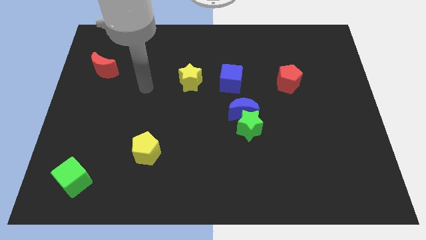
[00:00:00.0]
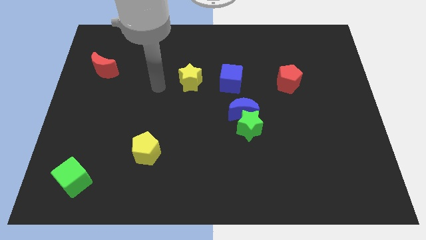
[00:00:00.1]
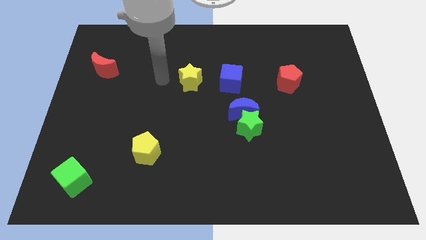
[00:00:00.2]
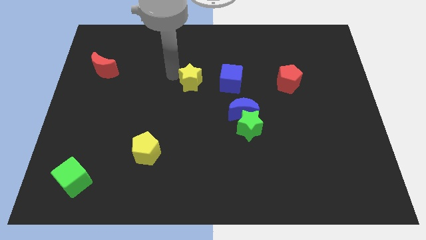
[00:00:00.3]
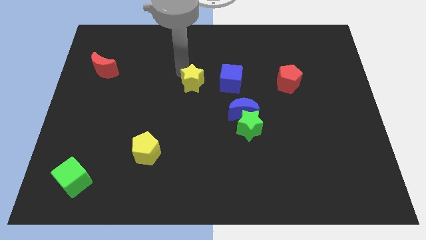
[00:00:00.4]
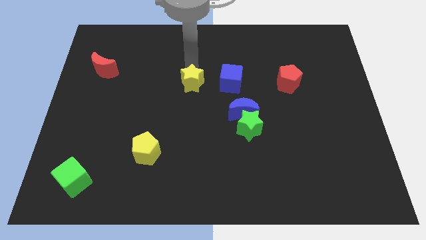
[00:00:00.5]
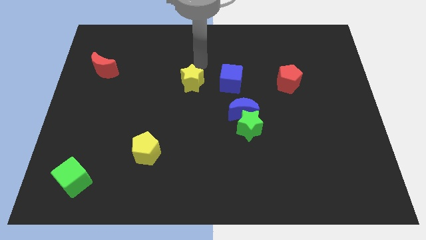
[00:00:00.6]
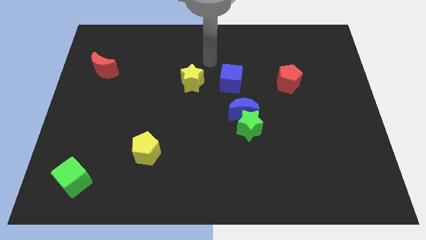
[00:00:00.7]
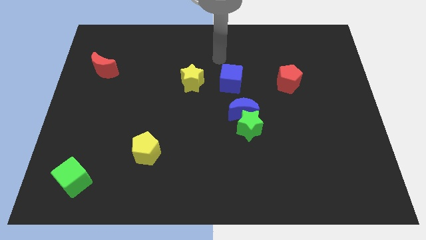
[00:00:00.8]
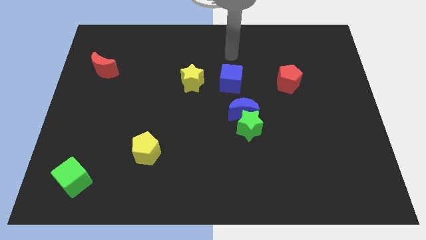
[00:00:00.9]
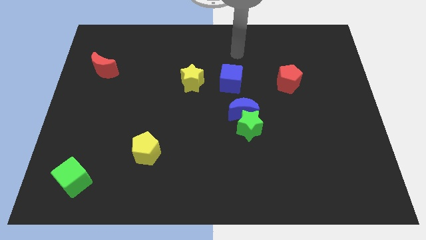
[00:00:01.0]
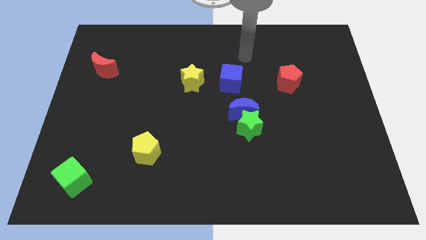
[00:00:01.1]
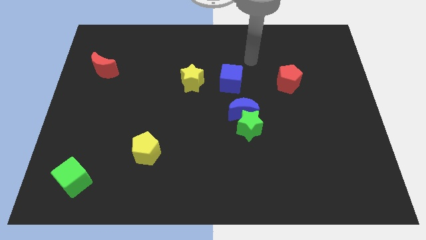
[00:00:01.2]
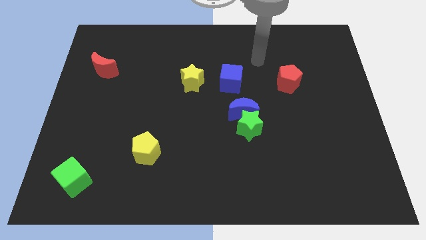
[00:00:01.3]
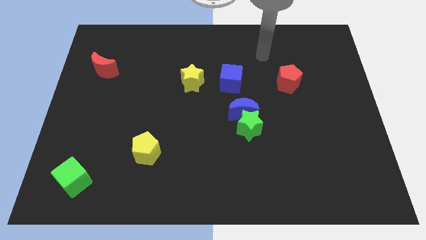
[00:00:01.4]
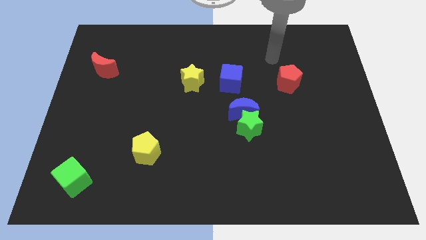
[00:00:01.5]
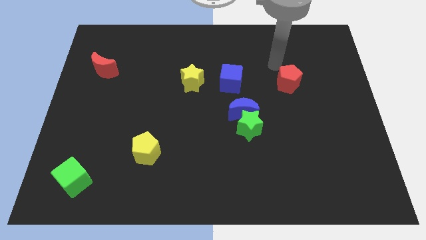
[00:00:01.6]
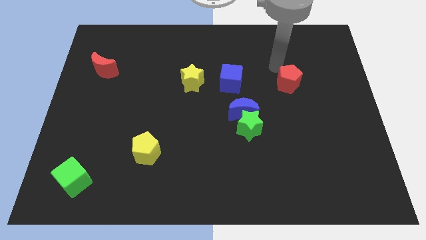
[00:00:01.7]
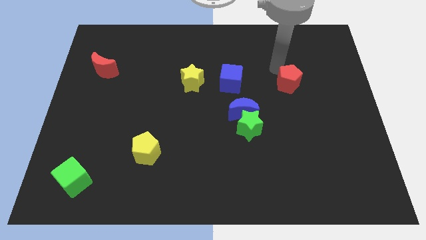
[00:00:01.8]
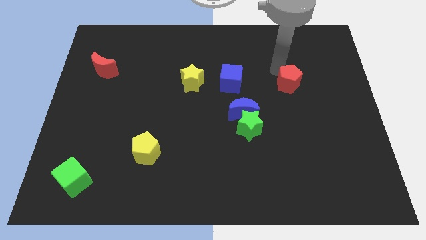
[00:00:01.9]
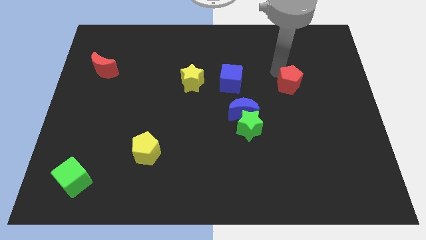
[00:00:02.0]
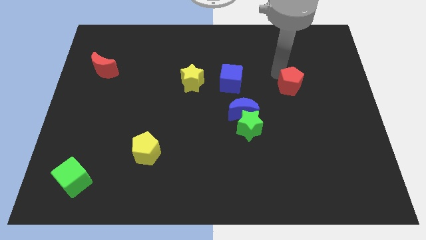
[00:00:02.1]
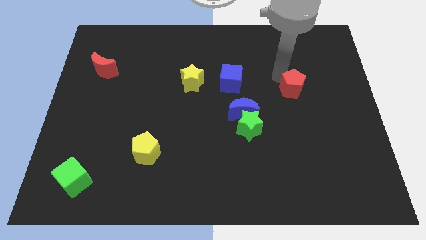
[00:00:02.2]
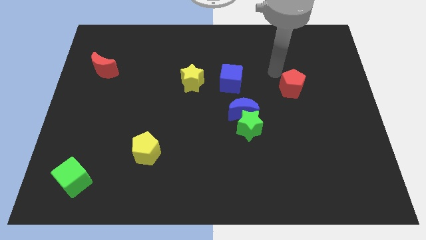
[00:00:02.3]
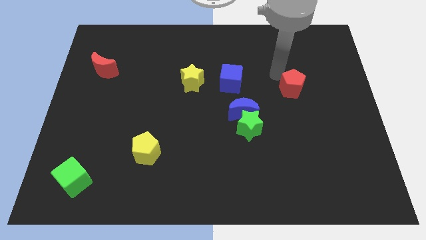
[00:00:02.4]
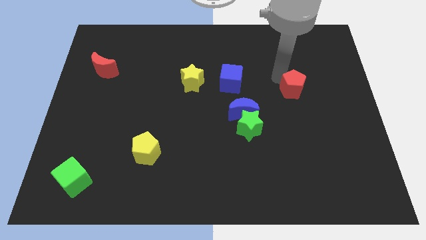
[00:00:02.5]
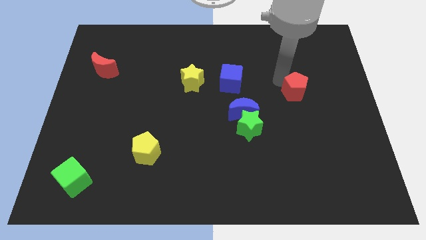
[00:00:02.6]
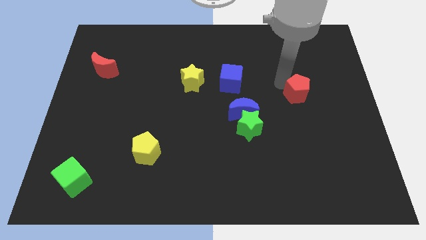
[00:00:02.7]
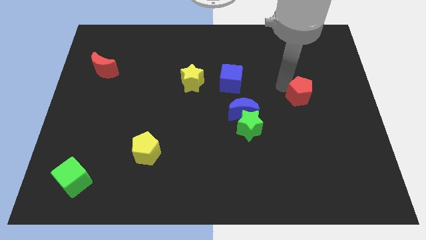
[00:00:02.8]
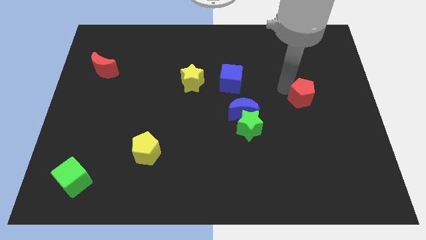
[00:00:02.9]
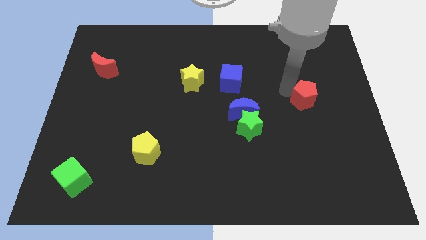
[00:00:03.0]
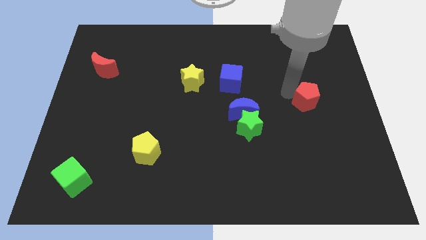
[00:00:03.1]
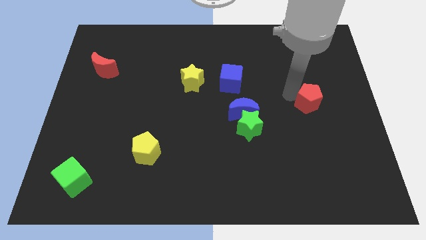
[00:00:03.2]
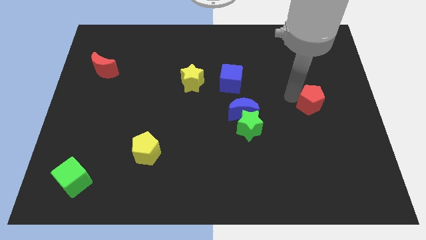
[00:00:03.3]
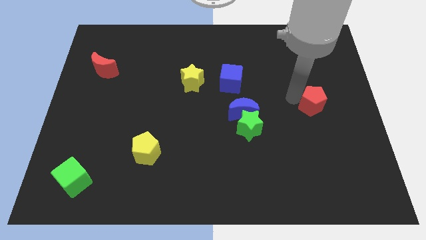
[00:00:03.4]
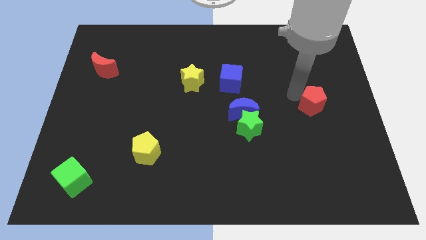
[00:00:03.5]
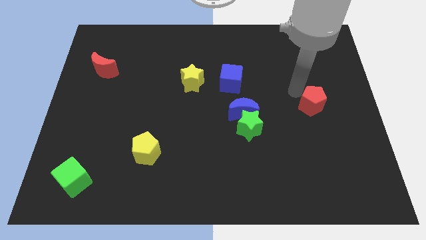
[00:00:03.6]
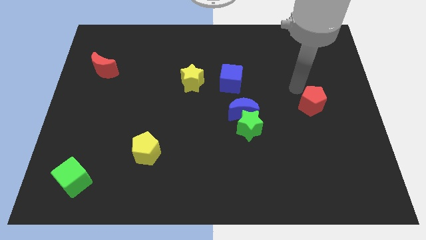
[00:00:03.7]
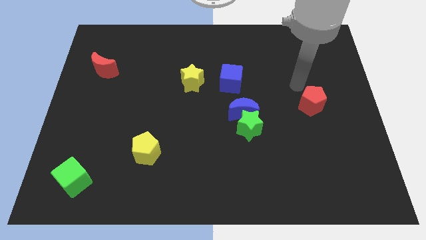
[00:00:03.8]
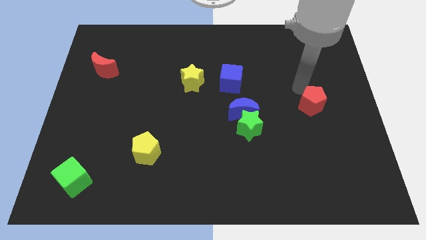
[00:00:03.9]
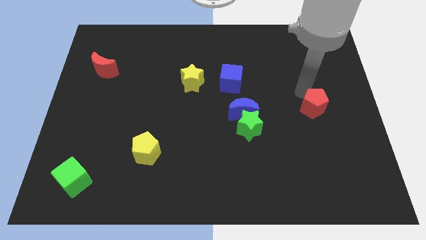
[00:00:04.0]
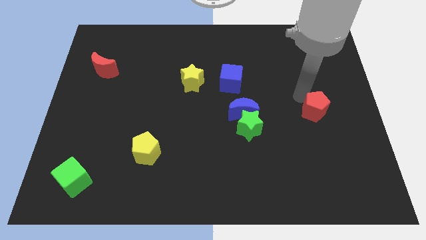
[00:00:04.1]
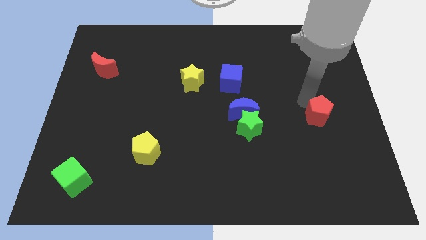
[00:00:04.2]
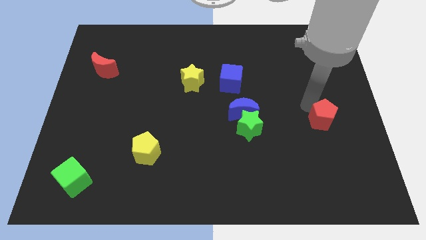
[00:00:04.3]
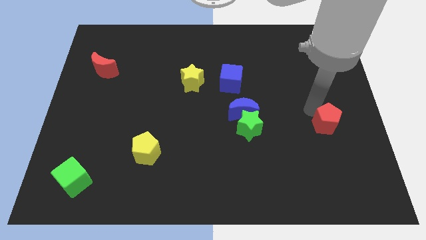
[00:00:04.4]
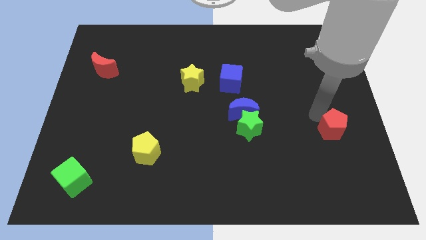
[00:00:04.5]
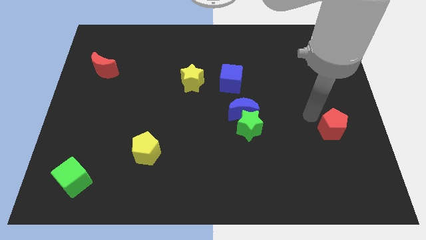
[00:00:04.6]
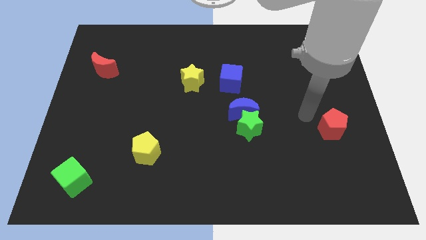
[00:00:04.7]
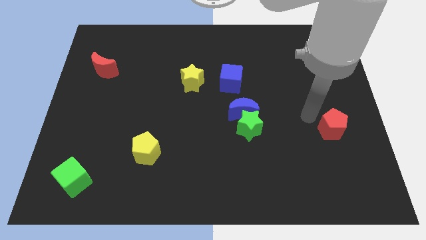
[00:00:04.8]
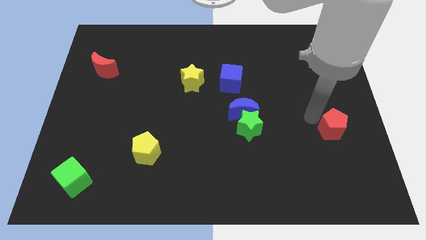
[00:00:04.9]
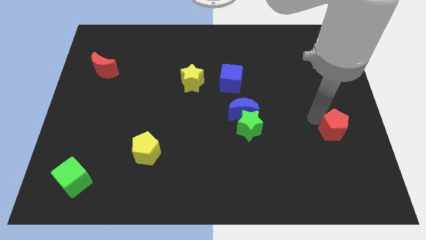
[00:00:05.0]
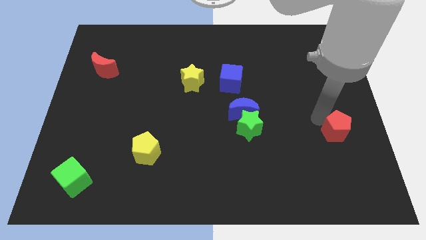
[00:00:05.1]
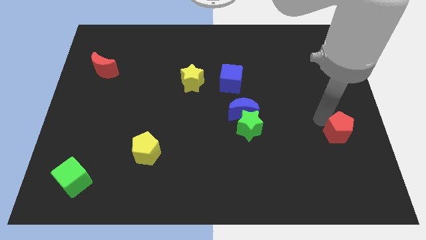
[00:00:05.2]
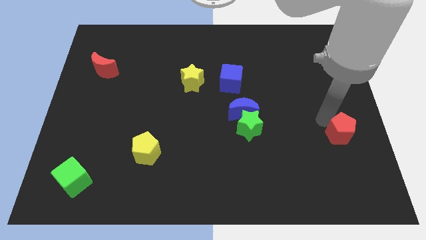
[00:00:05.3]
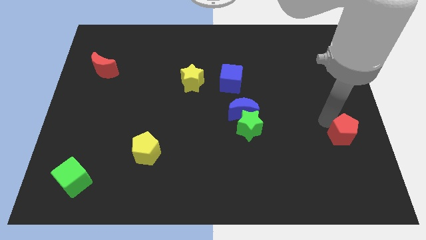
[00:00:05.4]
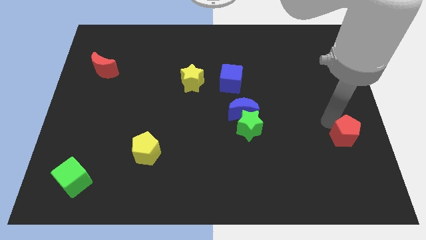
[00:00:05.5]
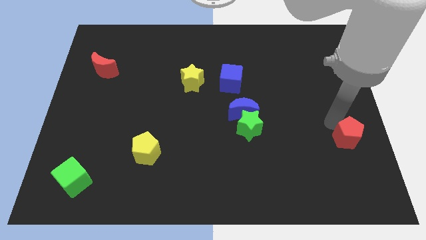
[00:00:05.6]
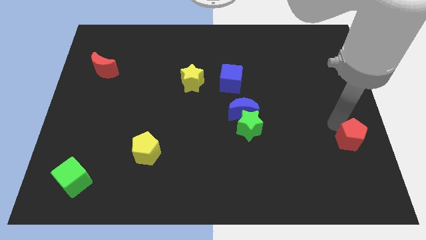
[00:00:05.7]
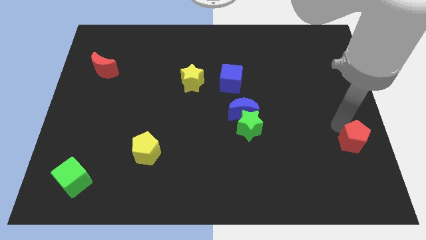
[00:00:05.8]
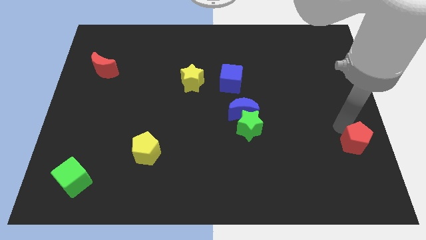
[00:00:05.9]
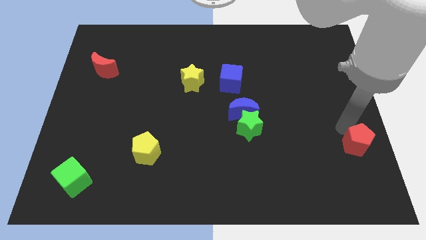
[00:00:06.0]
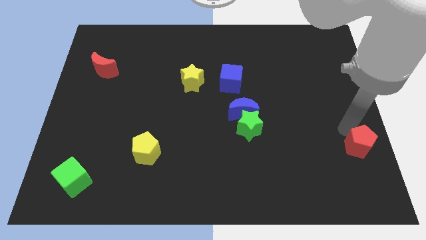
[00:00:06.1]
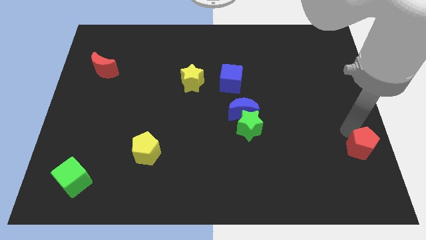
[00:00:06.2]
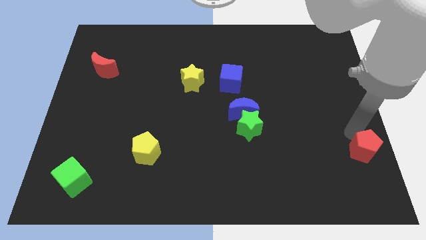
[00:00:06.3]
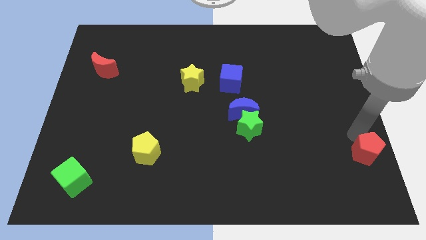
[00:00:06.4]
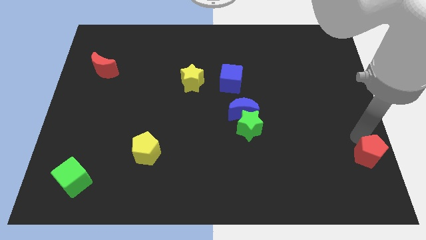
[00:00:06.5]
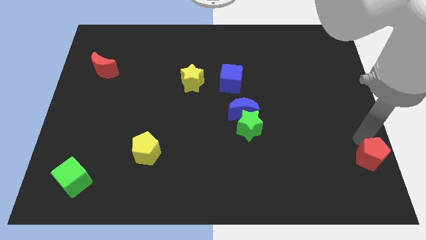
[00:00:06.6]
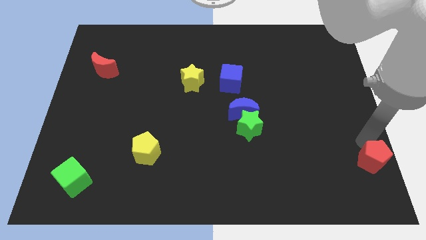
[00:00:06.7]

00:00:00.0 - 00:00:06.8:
move the red pentagon to the bottom right

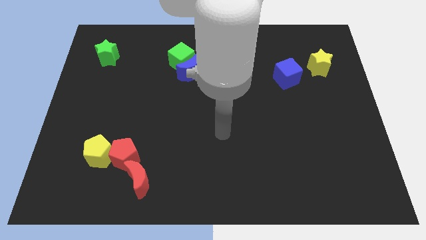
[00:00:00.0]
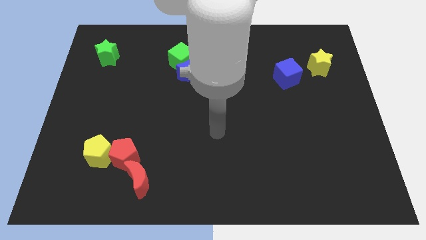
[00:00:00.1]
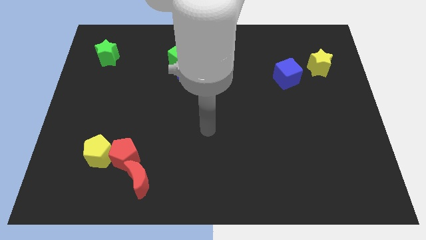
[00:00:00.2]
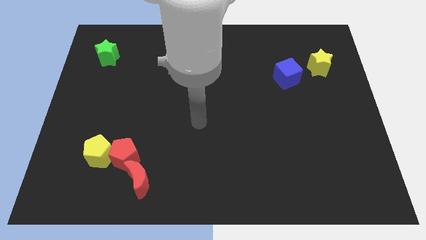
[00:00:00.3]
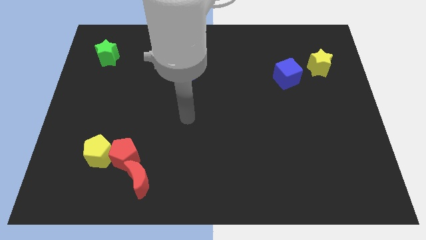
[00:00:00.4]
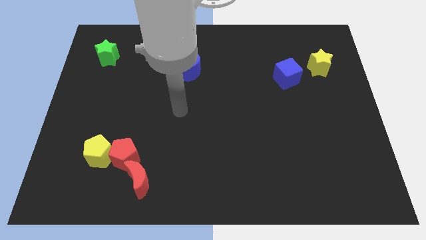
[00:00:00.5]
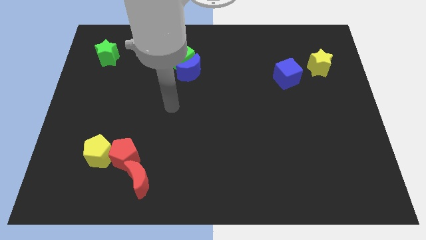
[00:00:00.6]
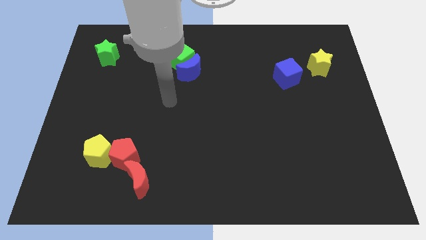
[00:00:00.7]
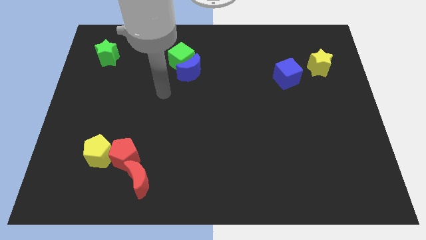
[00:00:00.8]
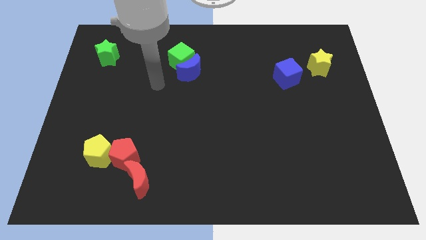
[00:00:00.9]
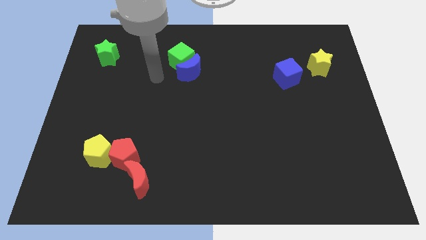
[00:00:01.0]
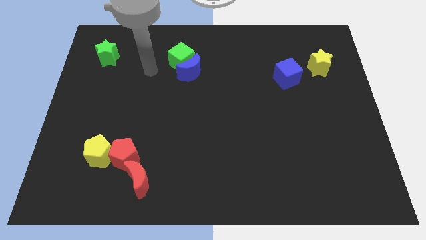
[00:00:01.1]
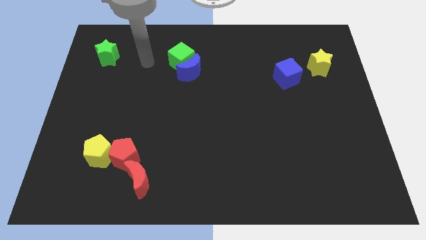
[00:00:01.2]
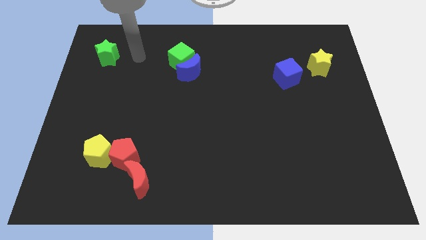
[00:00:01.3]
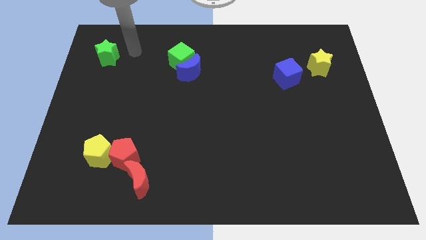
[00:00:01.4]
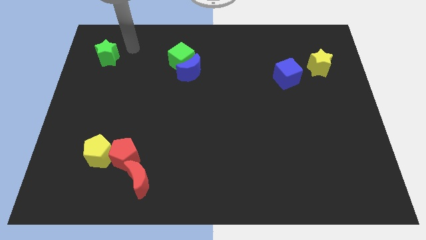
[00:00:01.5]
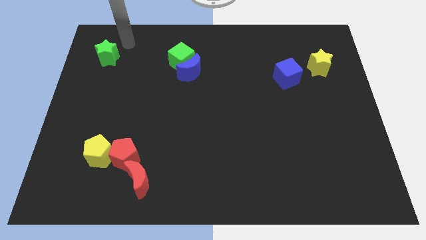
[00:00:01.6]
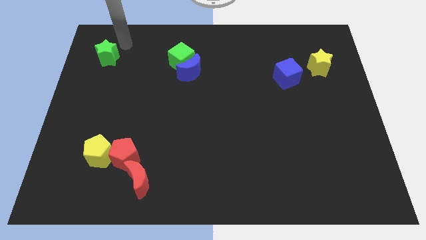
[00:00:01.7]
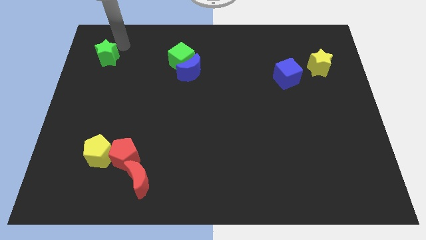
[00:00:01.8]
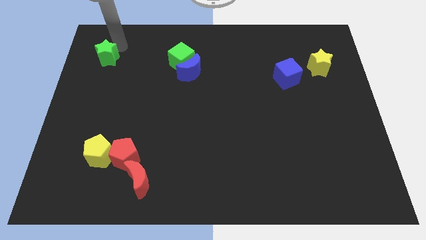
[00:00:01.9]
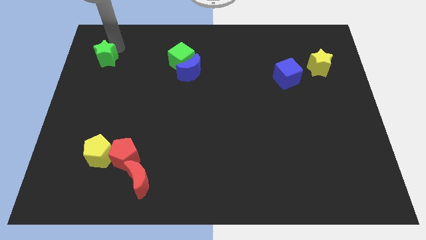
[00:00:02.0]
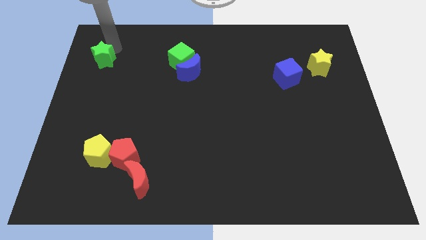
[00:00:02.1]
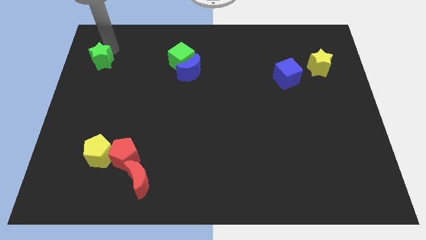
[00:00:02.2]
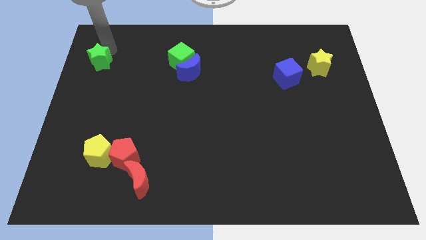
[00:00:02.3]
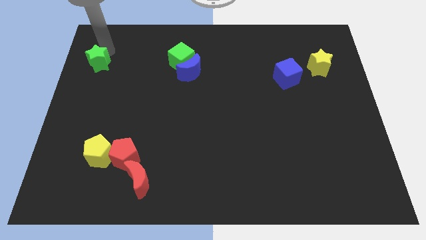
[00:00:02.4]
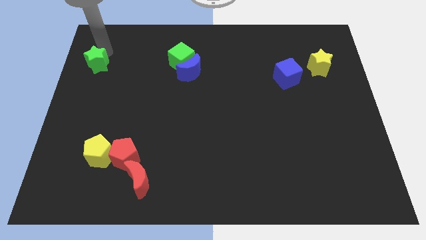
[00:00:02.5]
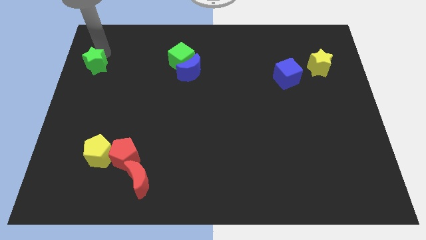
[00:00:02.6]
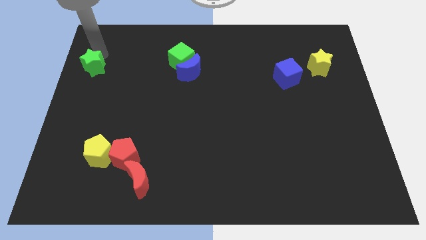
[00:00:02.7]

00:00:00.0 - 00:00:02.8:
move the green star to the center left
